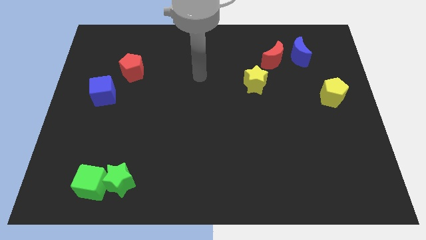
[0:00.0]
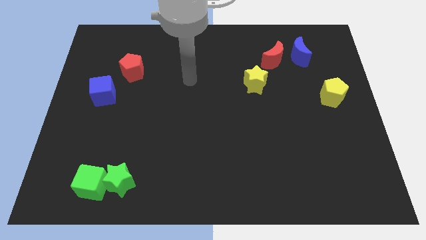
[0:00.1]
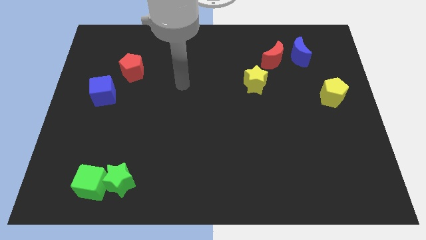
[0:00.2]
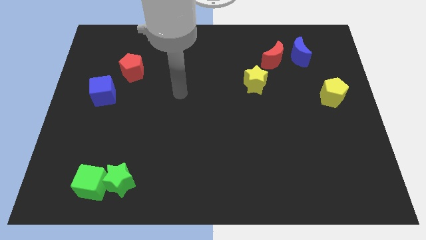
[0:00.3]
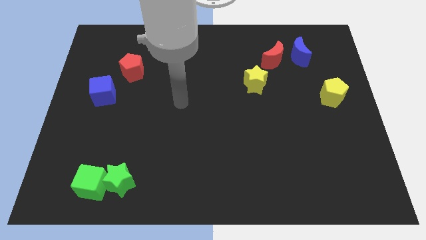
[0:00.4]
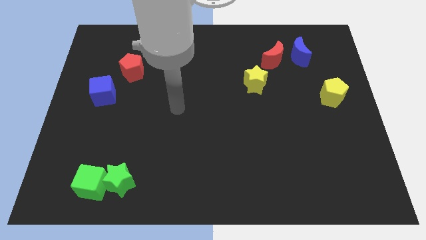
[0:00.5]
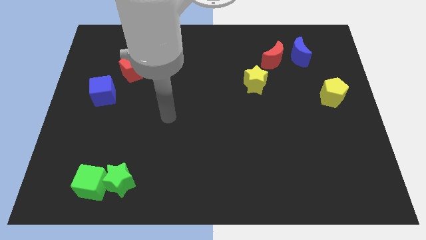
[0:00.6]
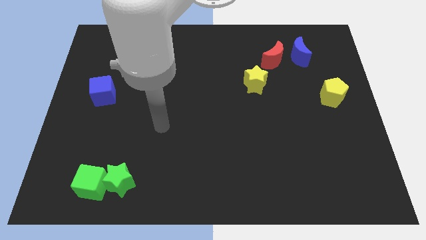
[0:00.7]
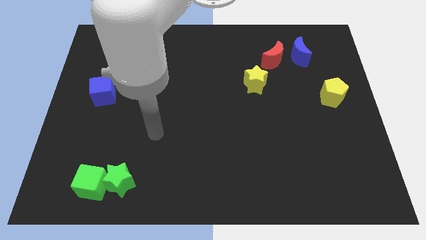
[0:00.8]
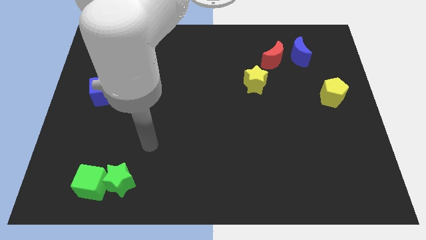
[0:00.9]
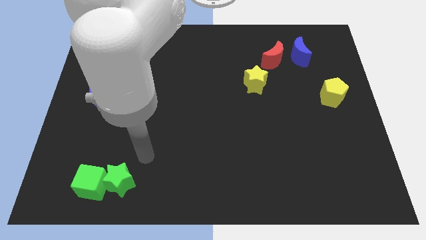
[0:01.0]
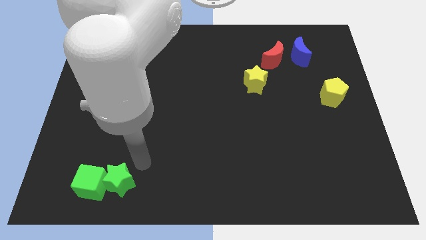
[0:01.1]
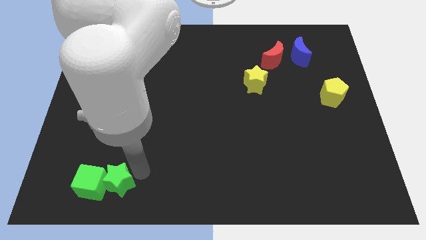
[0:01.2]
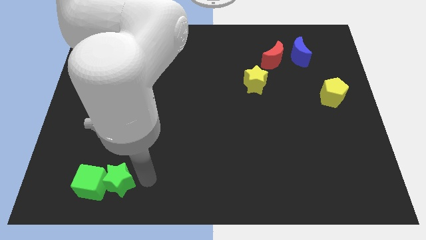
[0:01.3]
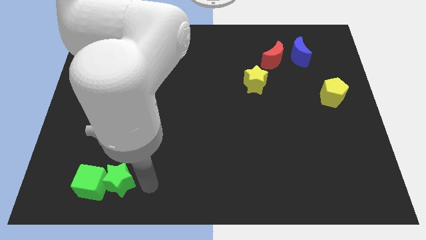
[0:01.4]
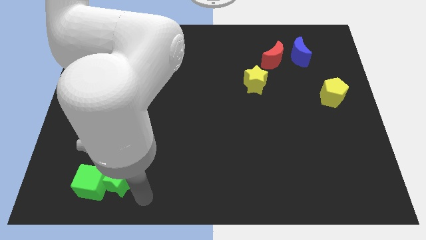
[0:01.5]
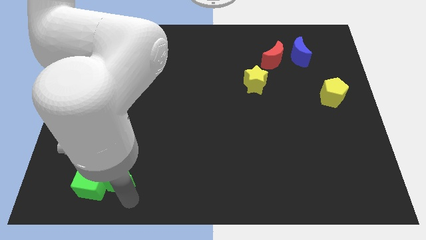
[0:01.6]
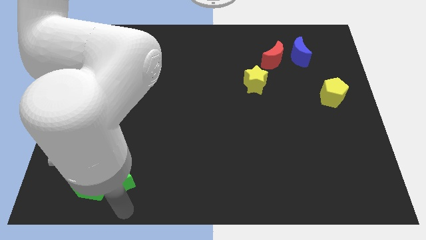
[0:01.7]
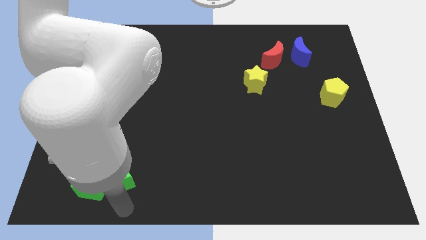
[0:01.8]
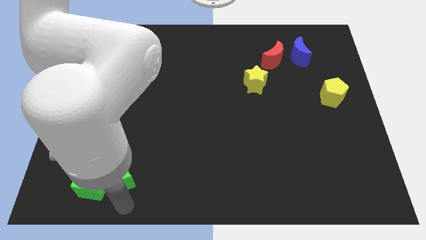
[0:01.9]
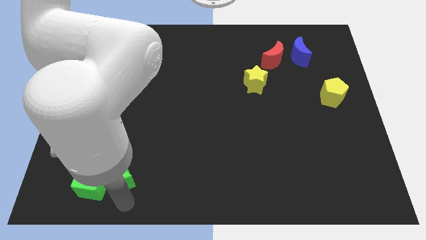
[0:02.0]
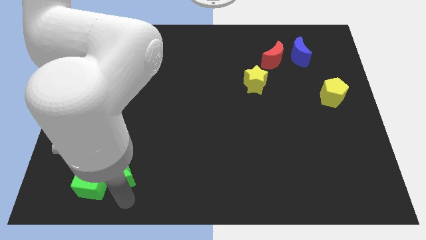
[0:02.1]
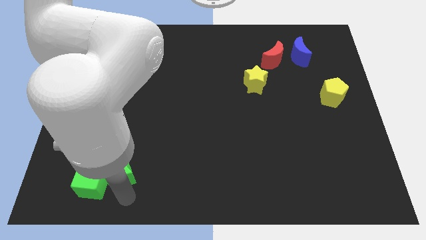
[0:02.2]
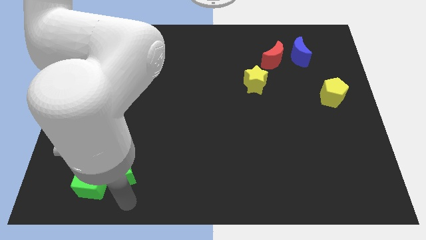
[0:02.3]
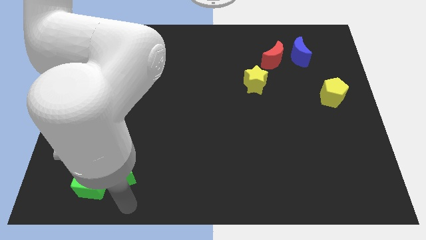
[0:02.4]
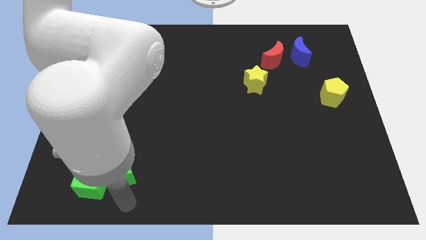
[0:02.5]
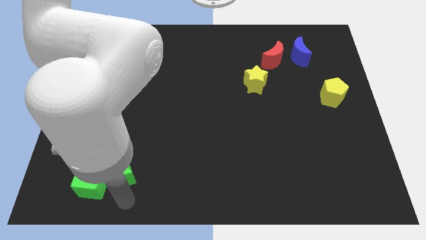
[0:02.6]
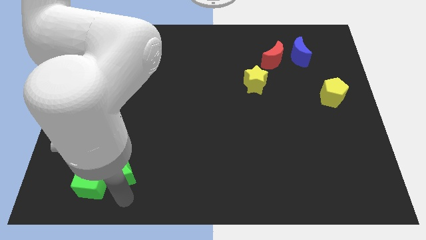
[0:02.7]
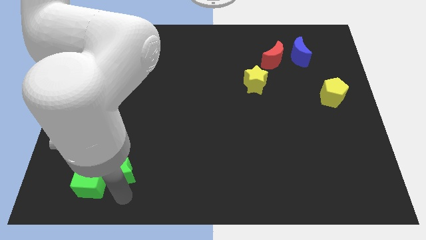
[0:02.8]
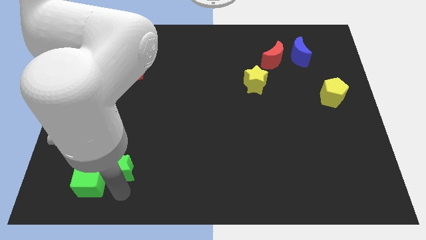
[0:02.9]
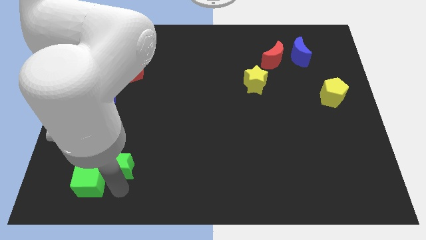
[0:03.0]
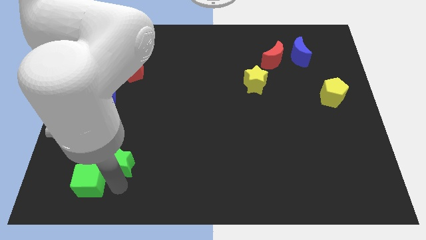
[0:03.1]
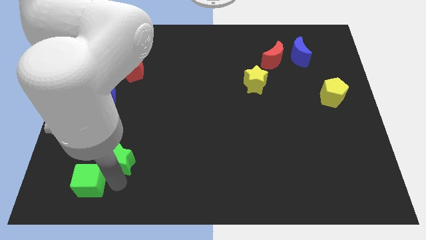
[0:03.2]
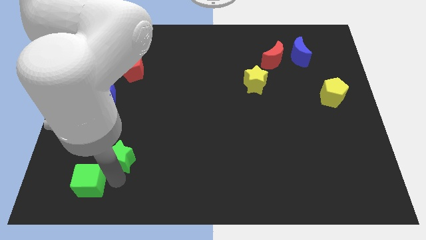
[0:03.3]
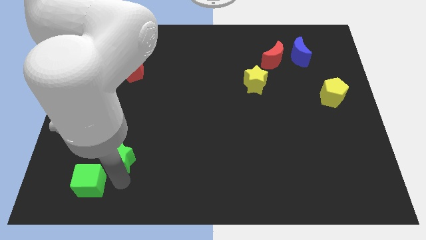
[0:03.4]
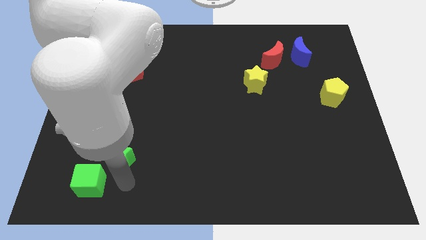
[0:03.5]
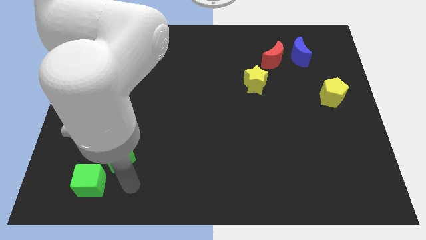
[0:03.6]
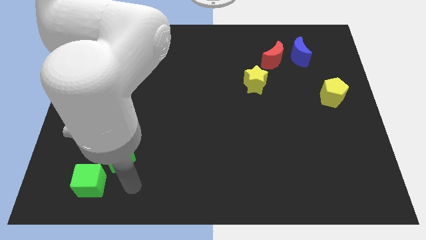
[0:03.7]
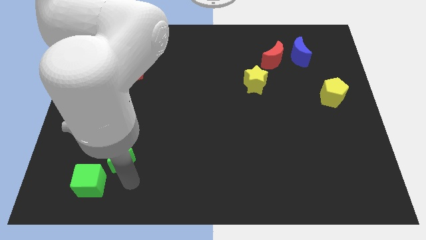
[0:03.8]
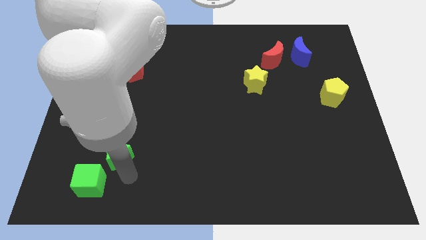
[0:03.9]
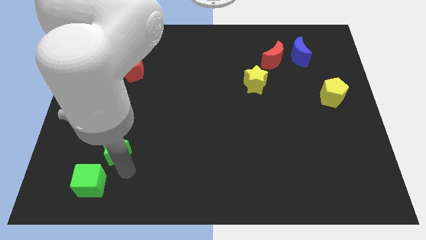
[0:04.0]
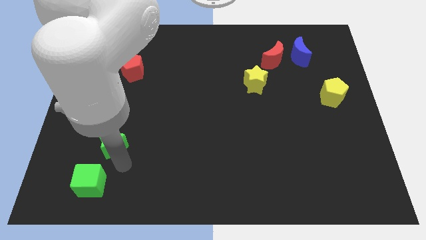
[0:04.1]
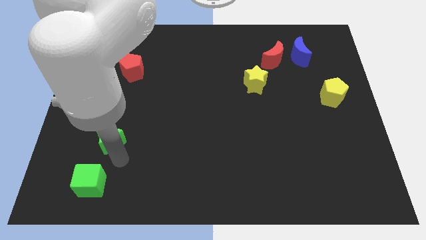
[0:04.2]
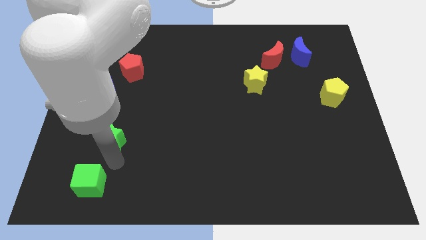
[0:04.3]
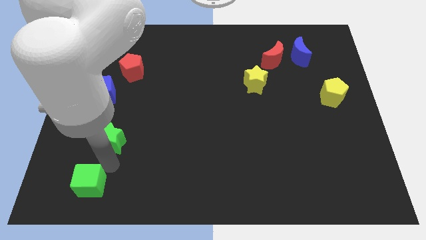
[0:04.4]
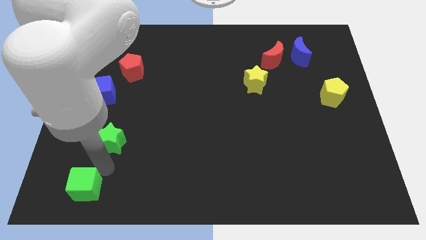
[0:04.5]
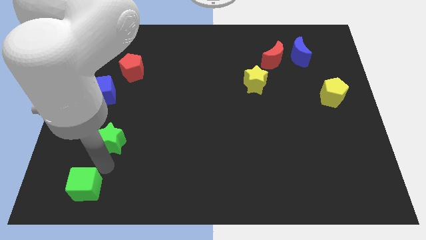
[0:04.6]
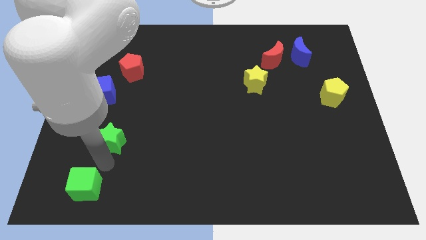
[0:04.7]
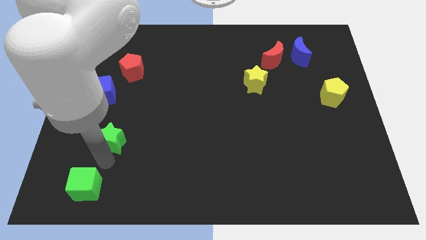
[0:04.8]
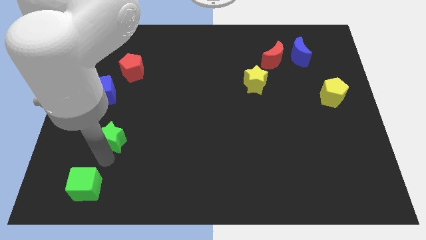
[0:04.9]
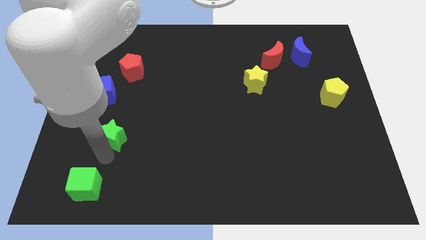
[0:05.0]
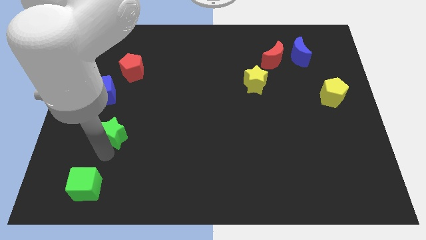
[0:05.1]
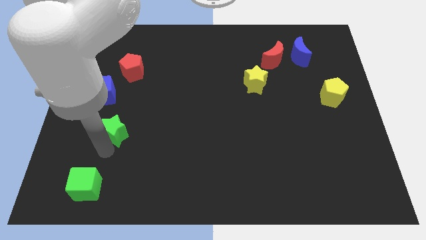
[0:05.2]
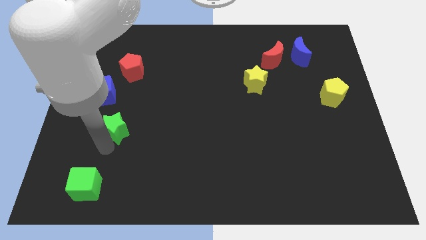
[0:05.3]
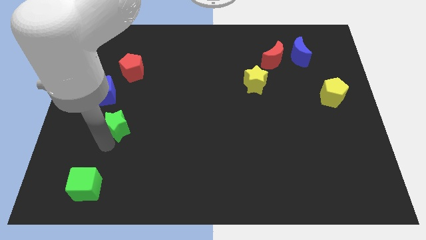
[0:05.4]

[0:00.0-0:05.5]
move the green star to the bottom right of the blue cube

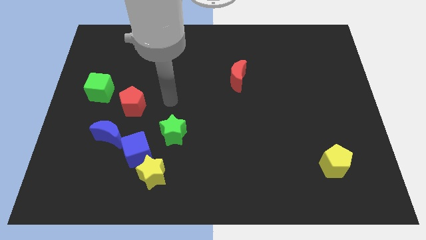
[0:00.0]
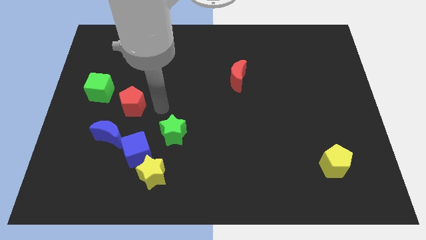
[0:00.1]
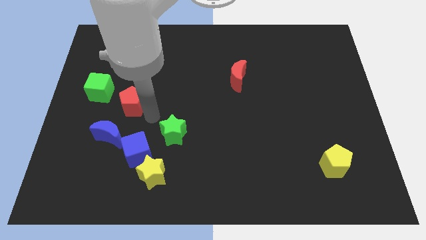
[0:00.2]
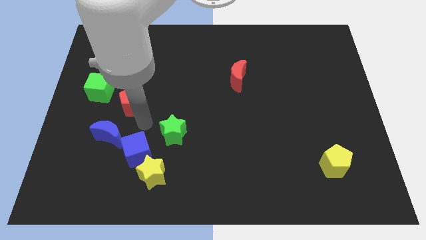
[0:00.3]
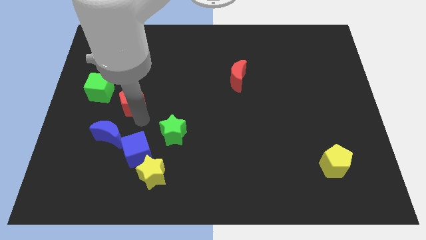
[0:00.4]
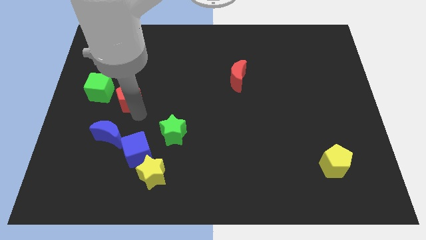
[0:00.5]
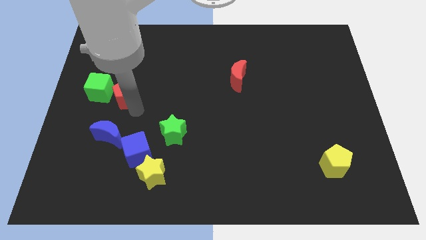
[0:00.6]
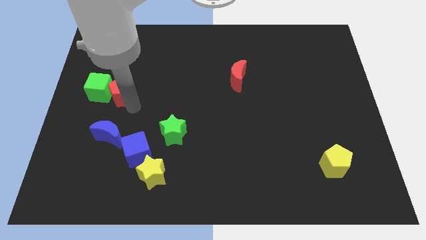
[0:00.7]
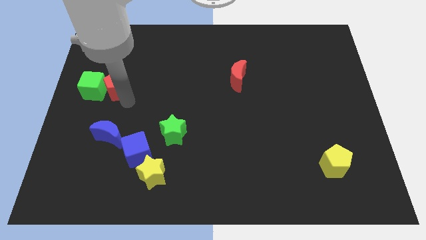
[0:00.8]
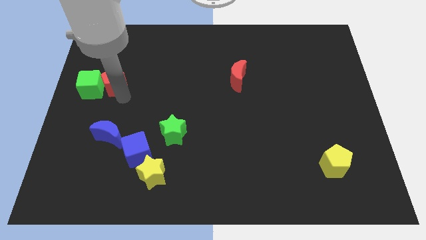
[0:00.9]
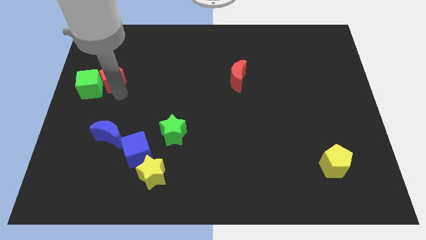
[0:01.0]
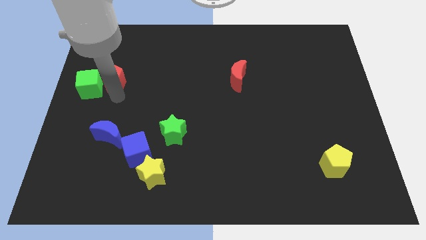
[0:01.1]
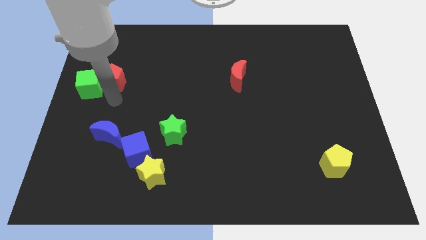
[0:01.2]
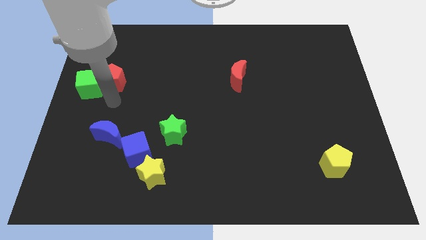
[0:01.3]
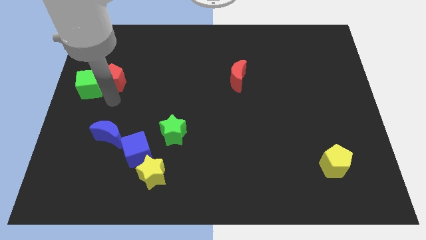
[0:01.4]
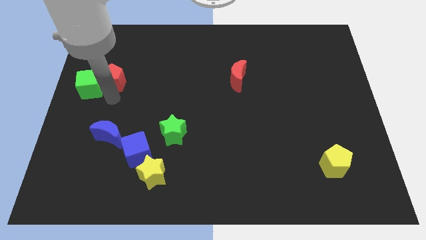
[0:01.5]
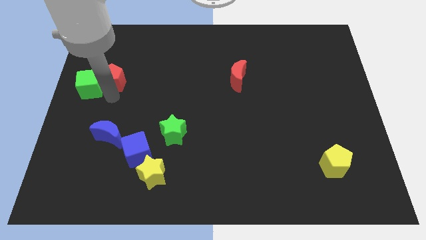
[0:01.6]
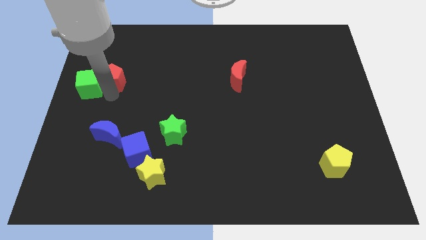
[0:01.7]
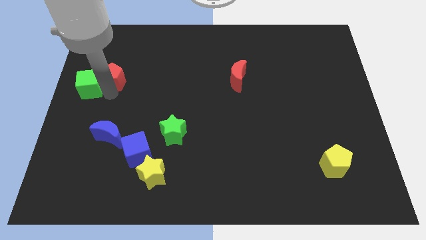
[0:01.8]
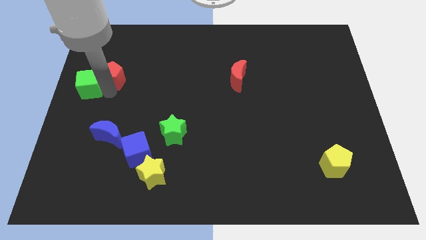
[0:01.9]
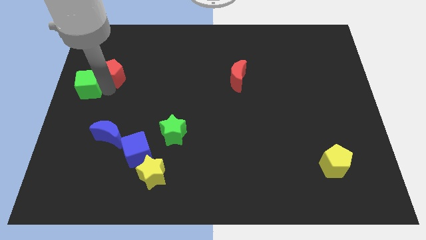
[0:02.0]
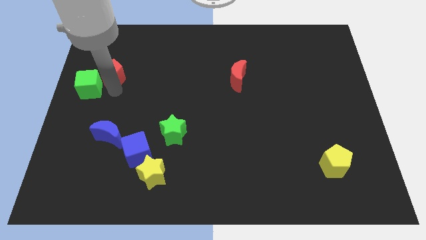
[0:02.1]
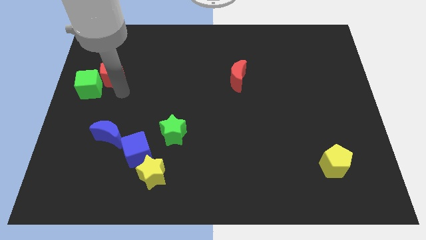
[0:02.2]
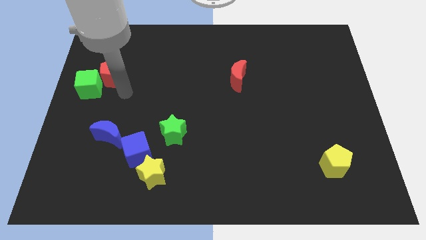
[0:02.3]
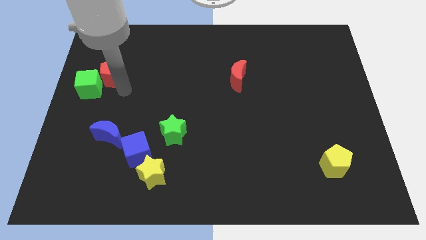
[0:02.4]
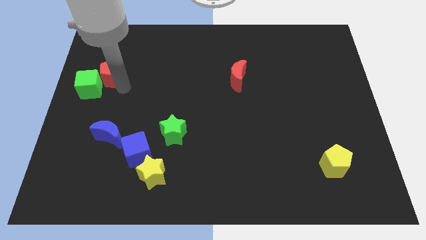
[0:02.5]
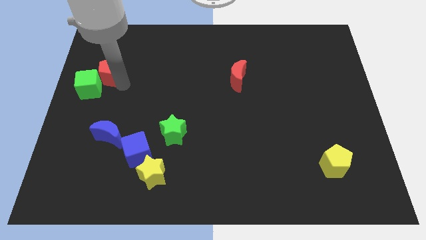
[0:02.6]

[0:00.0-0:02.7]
slide the red pentagon to the top of the green cube
